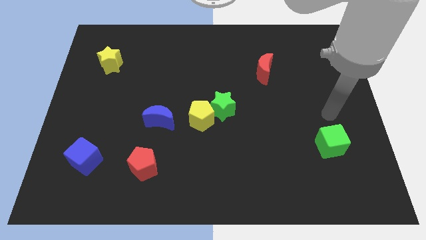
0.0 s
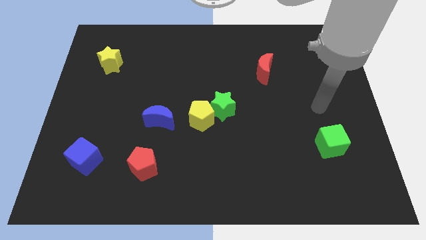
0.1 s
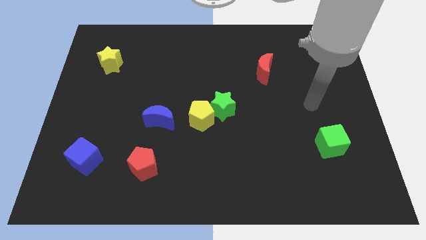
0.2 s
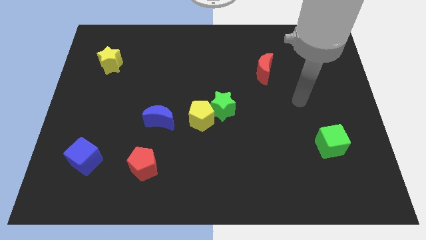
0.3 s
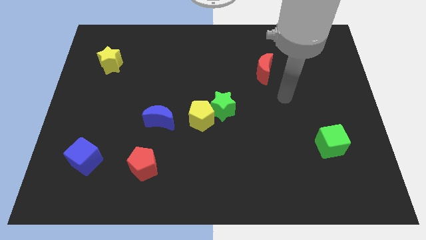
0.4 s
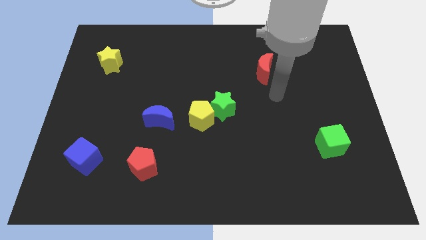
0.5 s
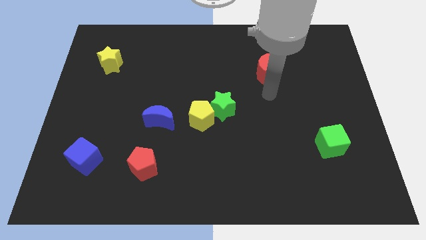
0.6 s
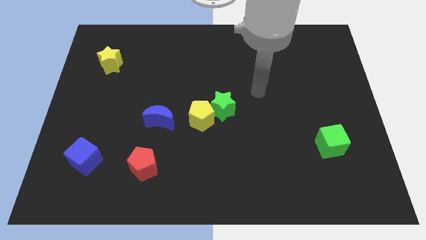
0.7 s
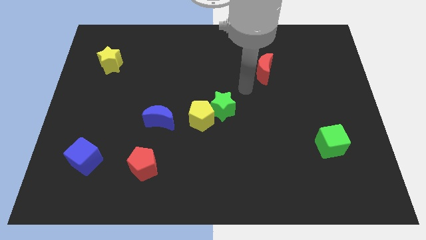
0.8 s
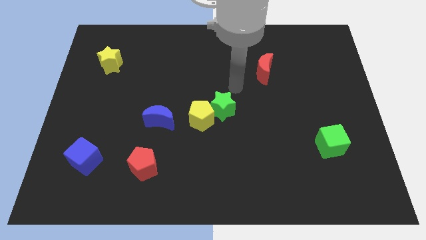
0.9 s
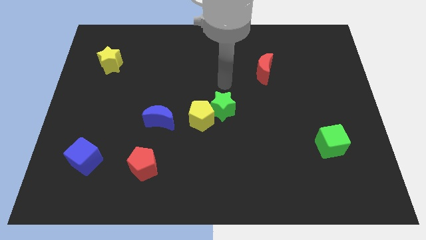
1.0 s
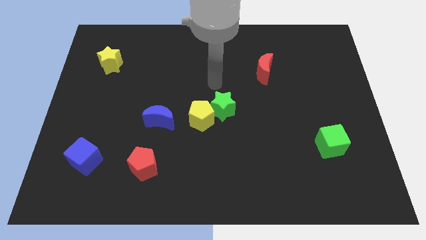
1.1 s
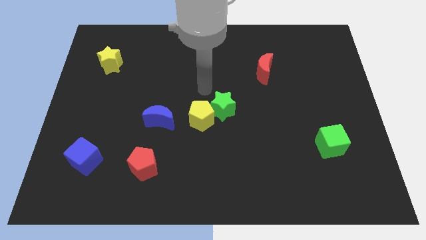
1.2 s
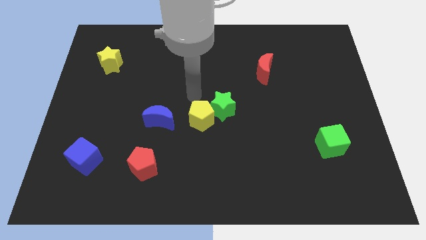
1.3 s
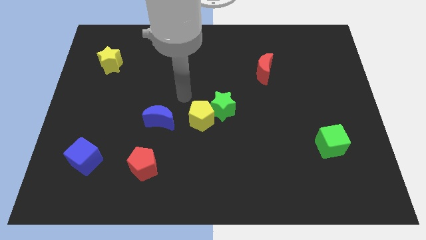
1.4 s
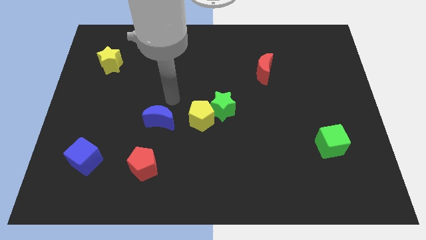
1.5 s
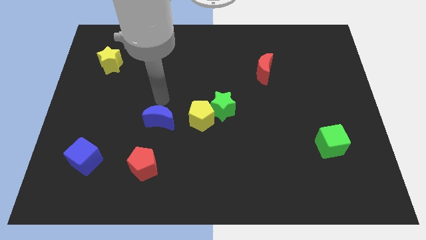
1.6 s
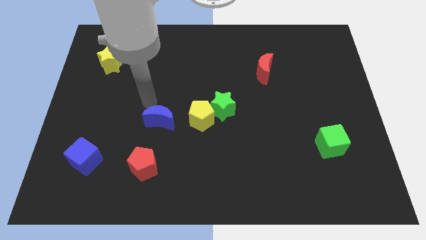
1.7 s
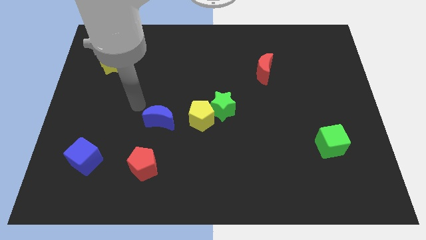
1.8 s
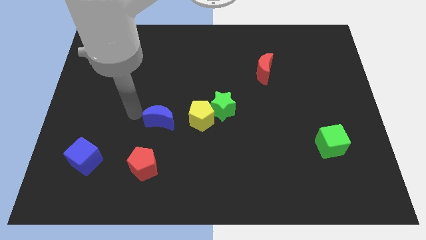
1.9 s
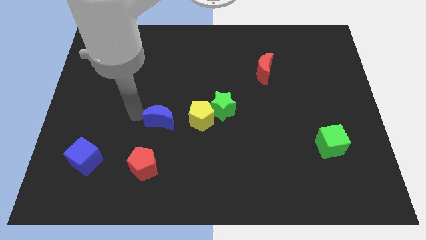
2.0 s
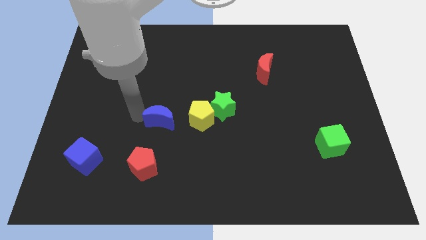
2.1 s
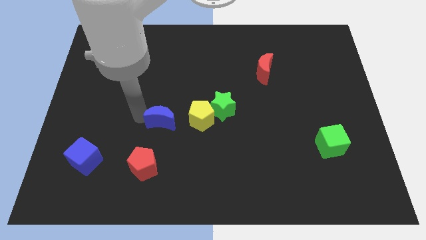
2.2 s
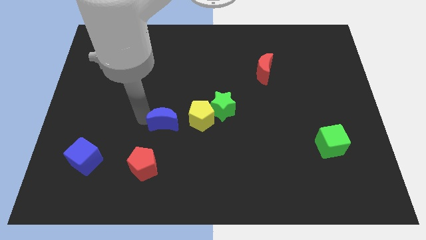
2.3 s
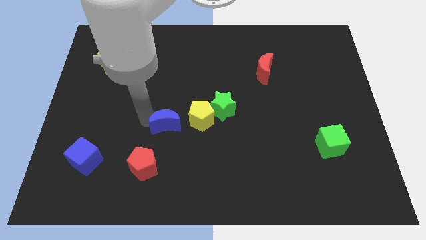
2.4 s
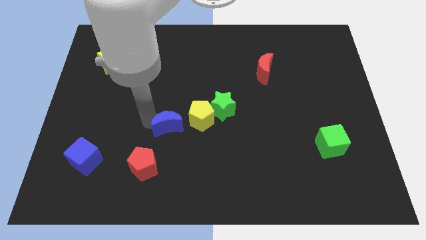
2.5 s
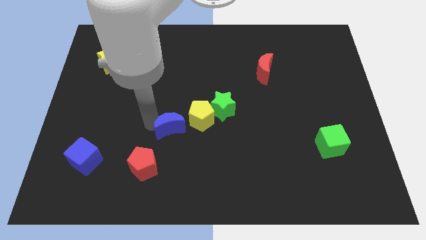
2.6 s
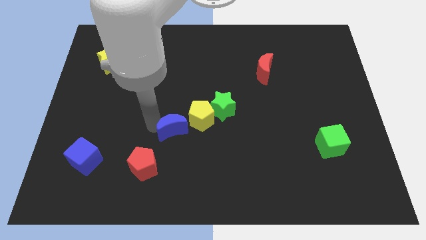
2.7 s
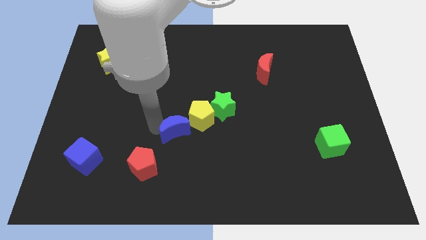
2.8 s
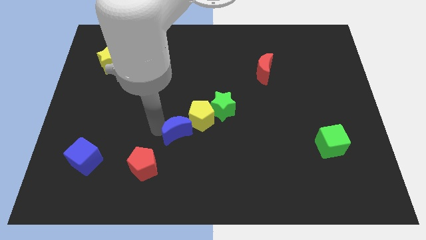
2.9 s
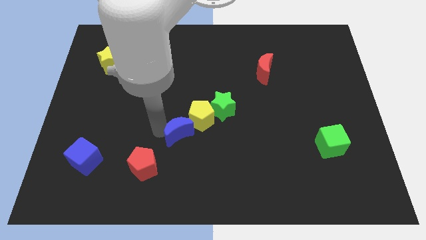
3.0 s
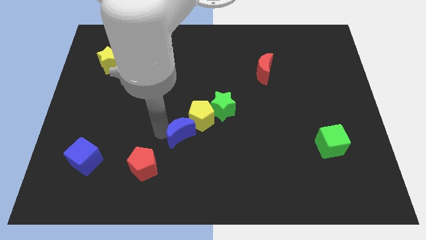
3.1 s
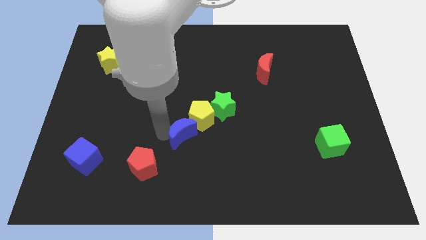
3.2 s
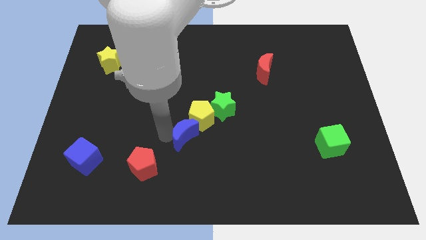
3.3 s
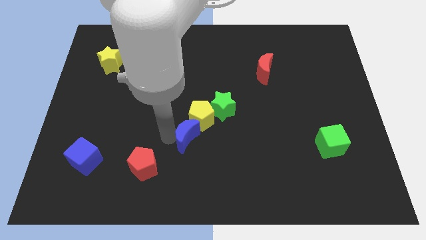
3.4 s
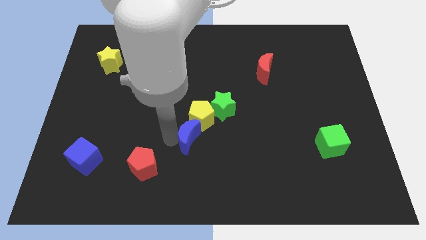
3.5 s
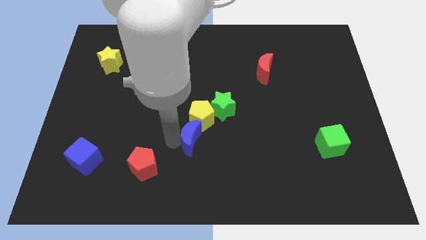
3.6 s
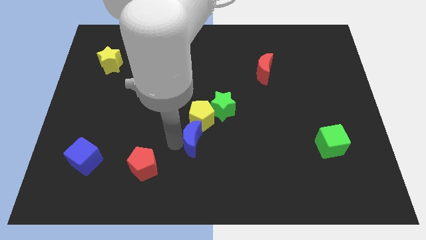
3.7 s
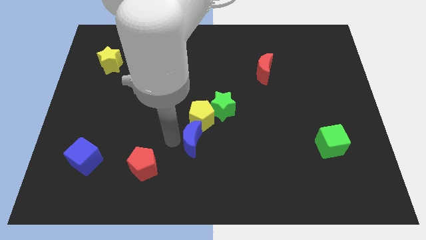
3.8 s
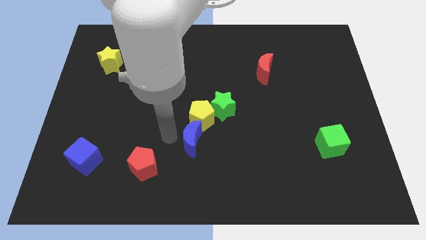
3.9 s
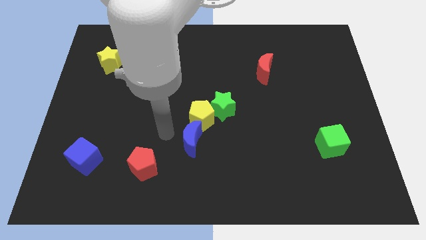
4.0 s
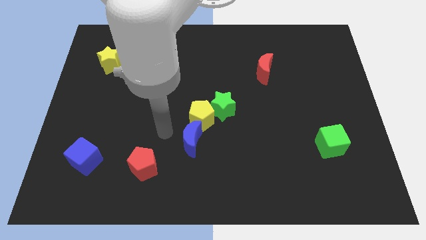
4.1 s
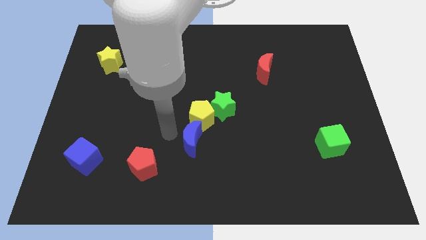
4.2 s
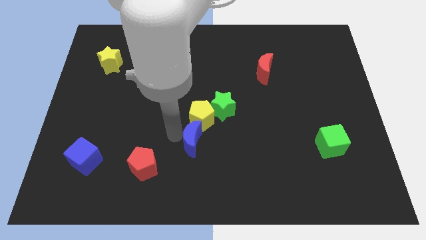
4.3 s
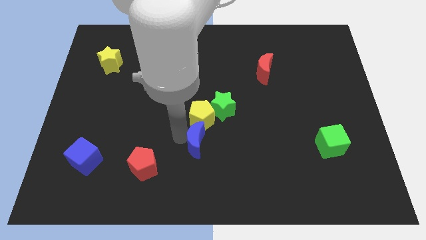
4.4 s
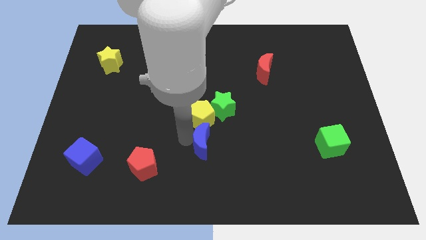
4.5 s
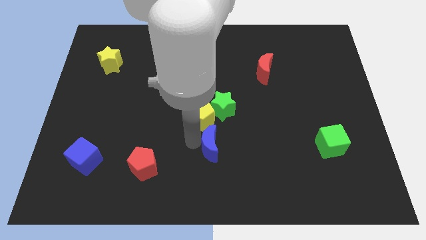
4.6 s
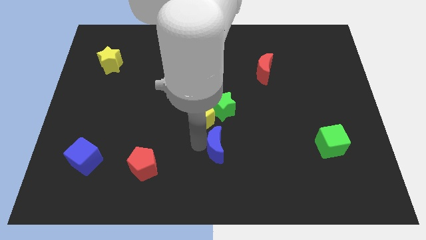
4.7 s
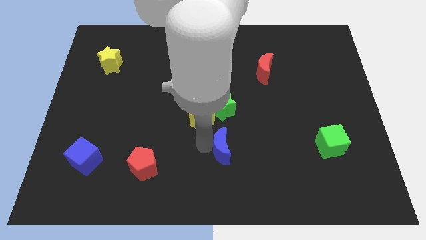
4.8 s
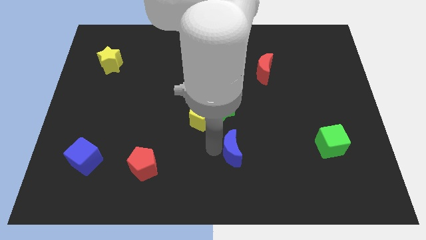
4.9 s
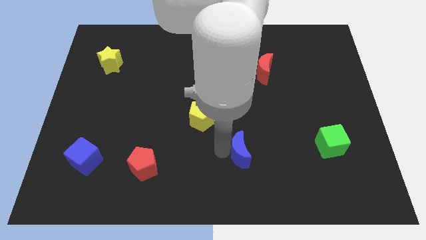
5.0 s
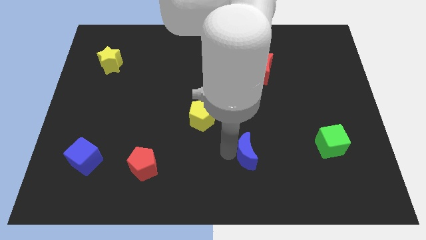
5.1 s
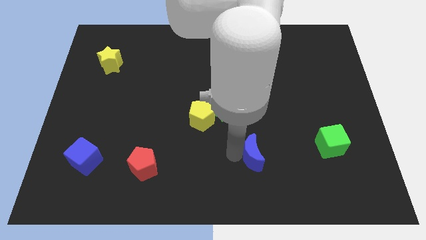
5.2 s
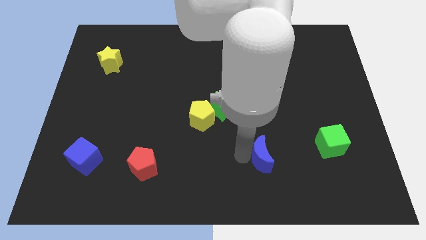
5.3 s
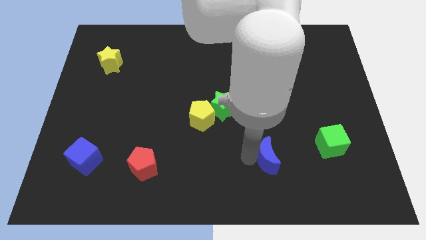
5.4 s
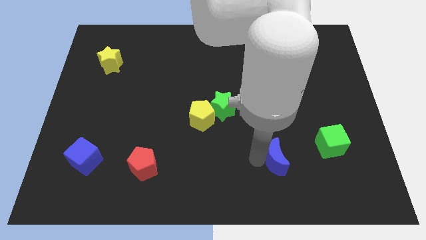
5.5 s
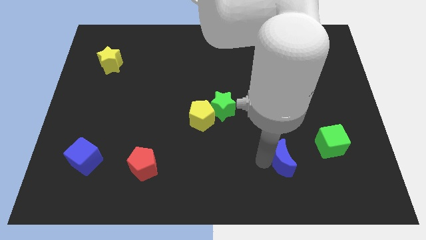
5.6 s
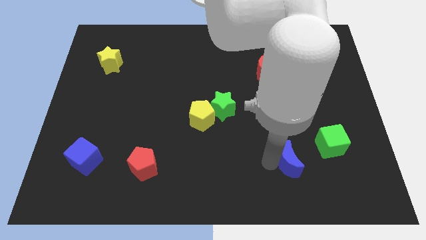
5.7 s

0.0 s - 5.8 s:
put the blue moon diagonally down and to the left of the green cube

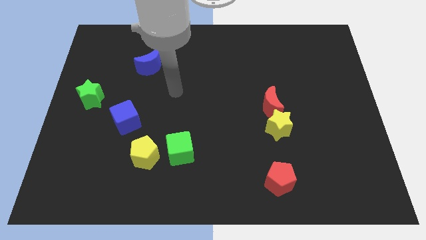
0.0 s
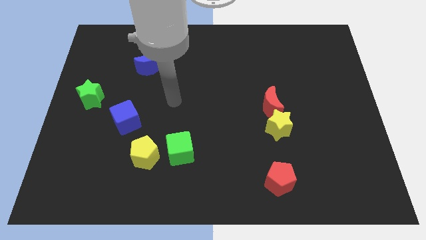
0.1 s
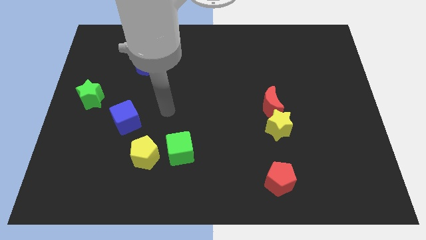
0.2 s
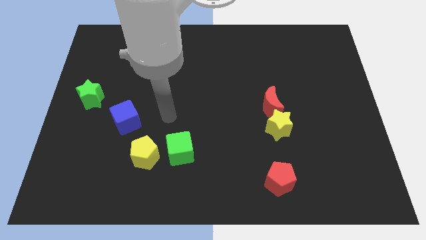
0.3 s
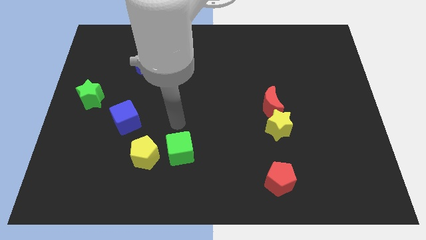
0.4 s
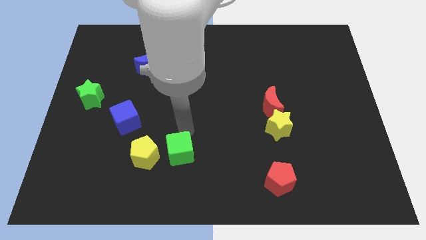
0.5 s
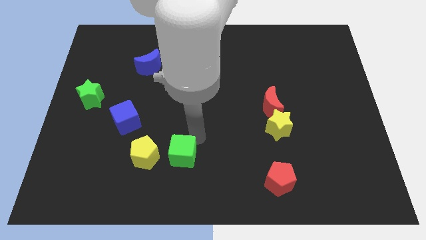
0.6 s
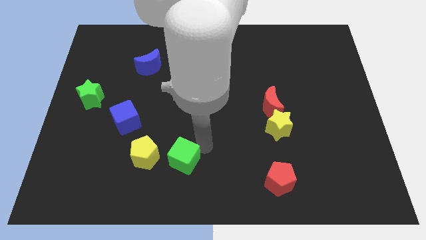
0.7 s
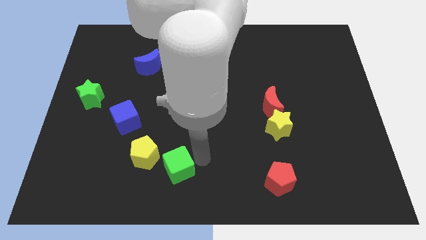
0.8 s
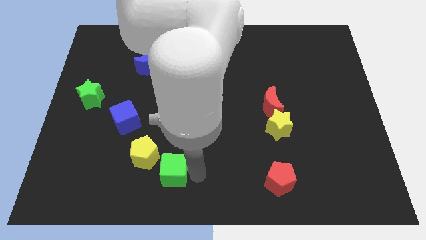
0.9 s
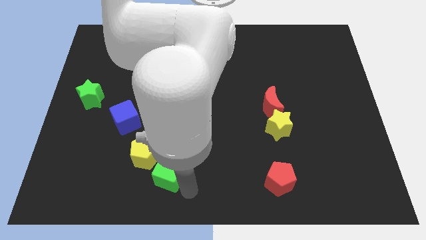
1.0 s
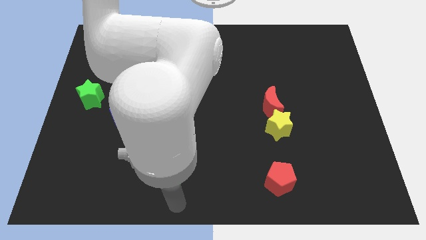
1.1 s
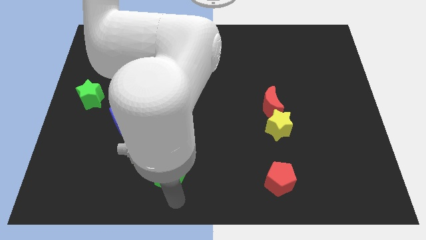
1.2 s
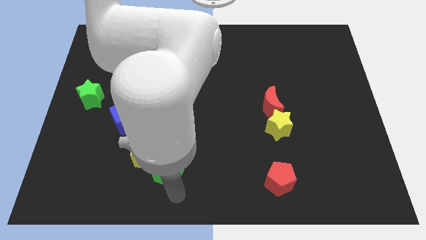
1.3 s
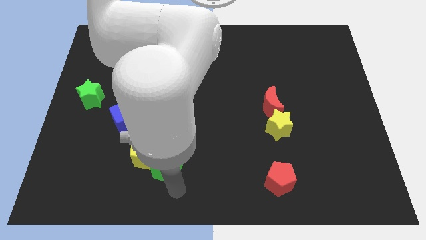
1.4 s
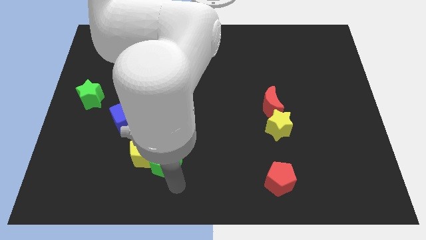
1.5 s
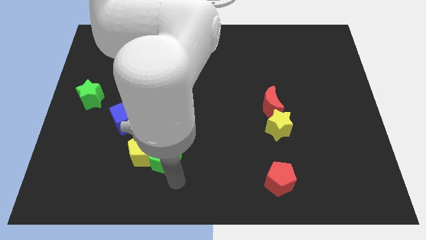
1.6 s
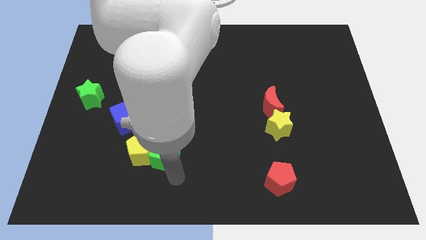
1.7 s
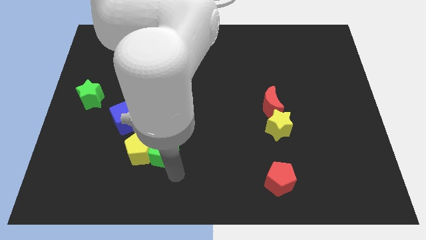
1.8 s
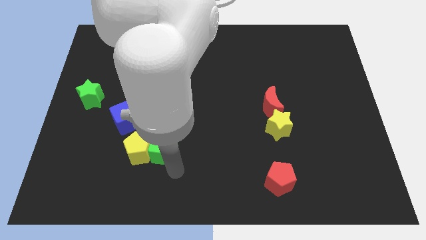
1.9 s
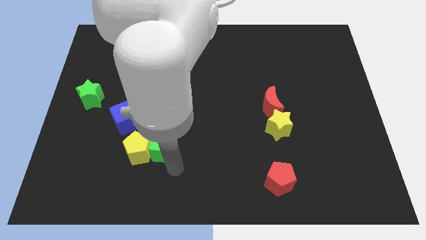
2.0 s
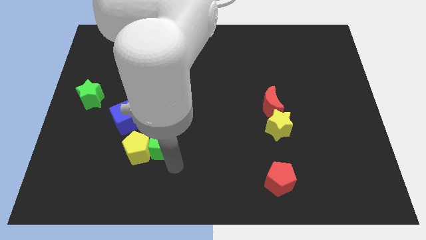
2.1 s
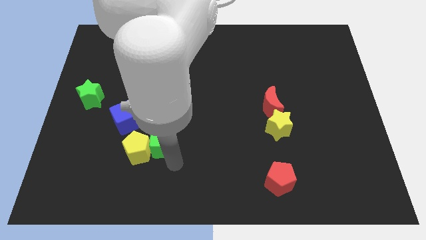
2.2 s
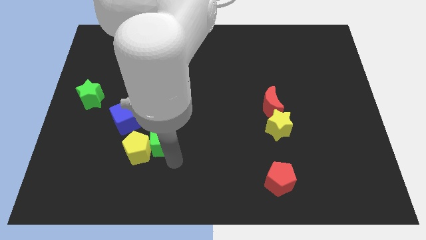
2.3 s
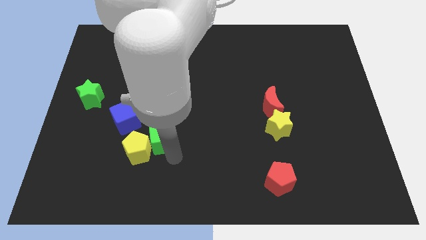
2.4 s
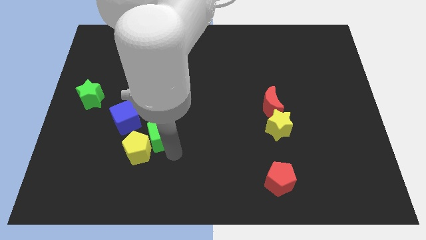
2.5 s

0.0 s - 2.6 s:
put the green cube above the yellow pentagon
